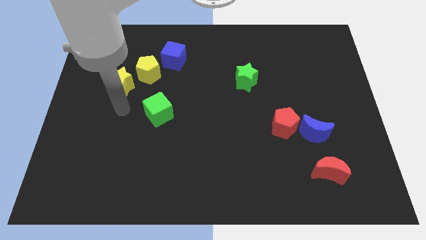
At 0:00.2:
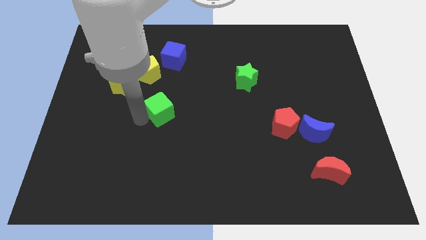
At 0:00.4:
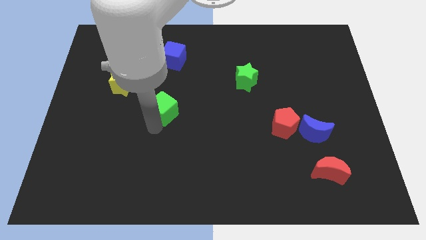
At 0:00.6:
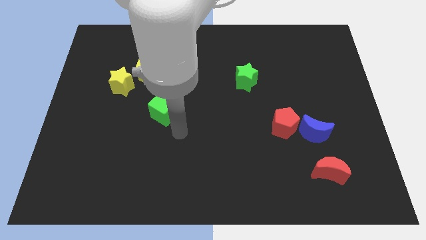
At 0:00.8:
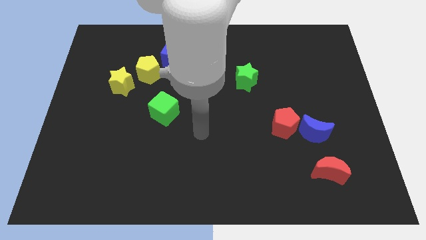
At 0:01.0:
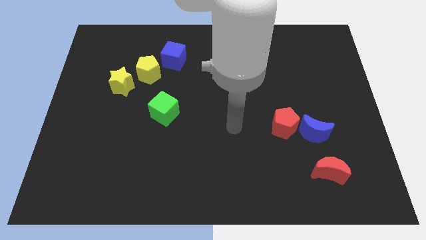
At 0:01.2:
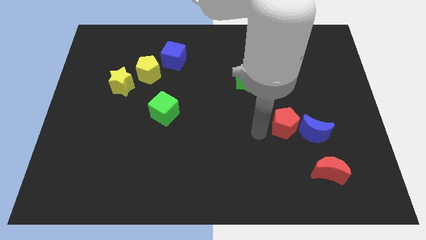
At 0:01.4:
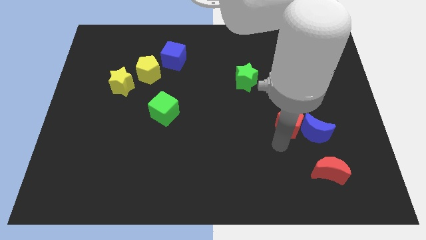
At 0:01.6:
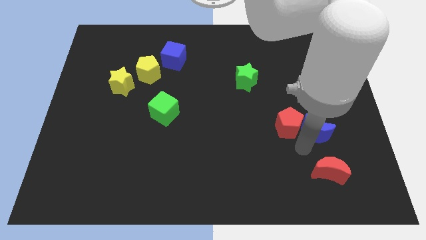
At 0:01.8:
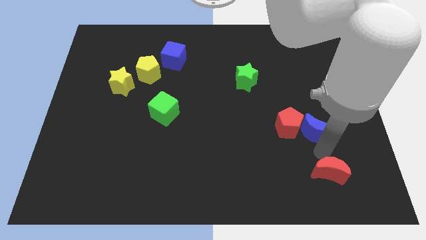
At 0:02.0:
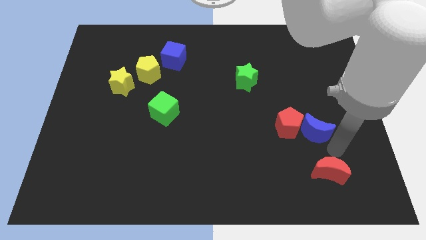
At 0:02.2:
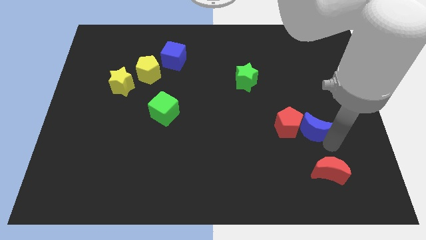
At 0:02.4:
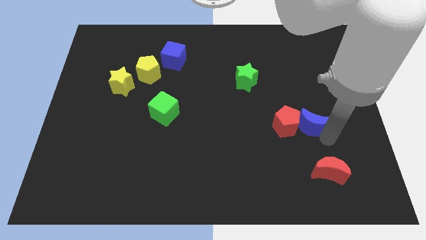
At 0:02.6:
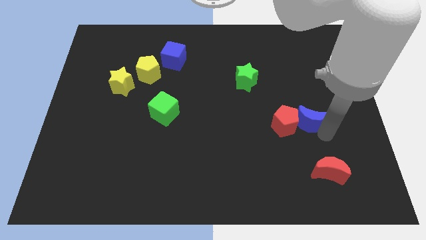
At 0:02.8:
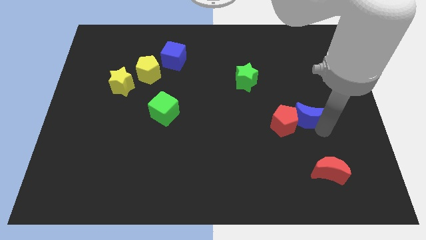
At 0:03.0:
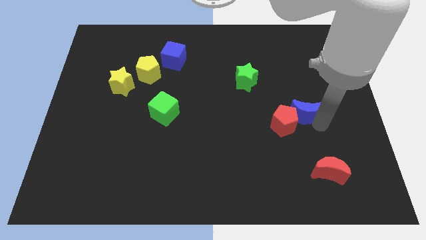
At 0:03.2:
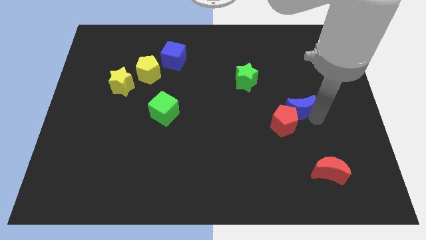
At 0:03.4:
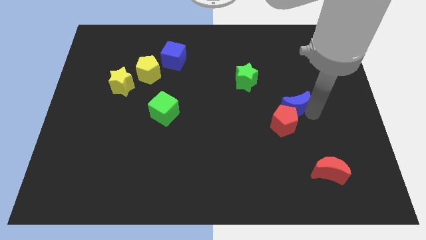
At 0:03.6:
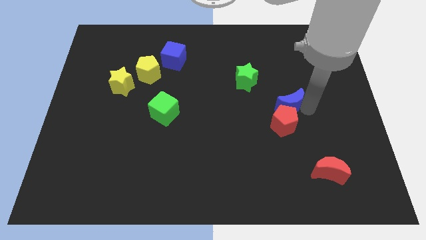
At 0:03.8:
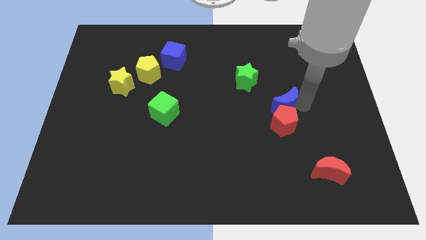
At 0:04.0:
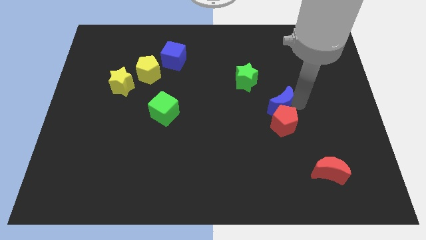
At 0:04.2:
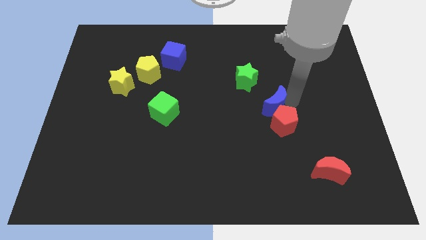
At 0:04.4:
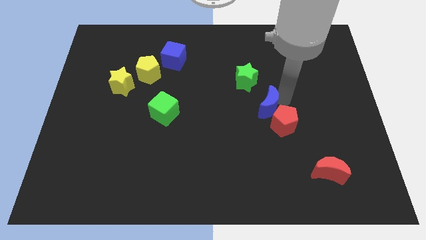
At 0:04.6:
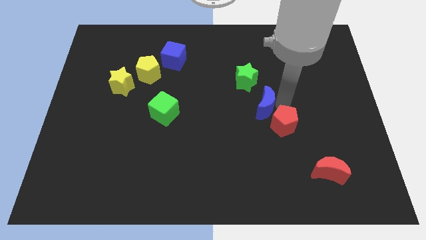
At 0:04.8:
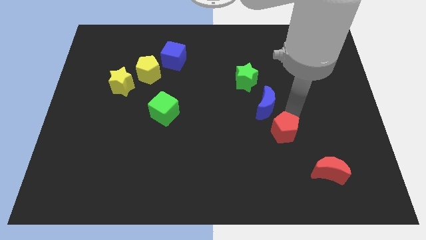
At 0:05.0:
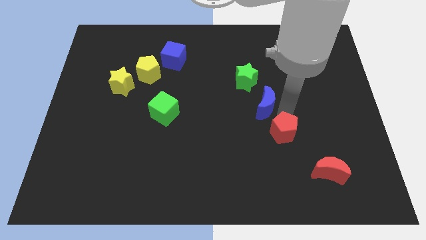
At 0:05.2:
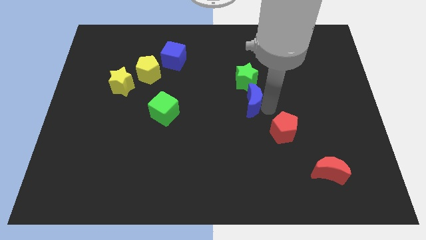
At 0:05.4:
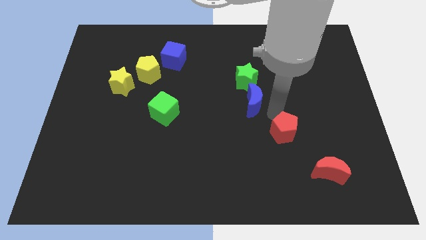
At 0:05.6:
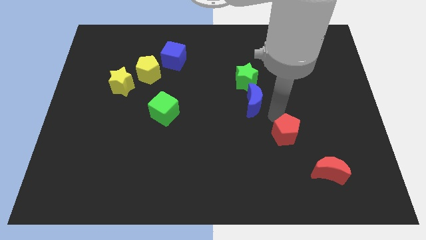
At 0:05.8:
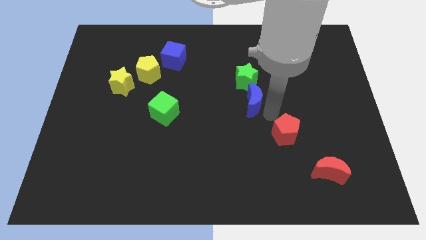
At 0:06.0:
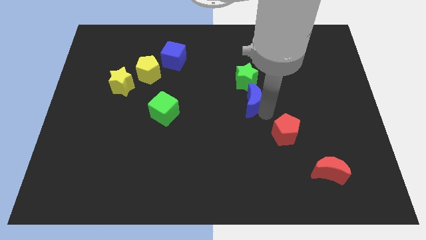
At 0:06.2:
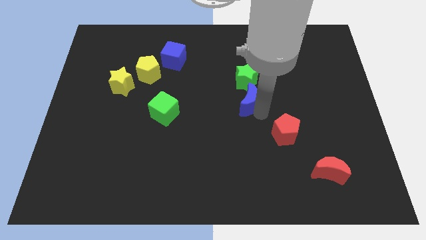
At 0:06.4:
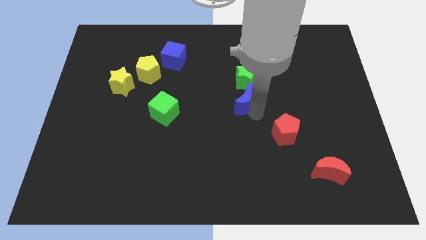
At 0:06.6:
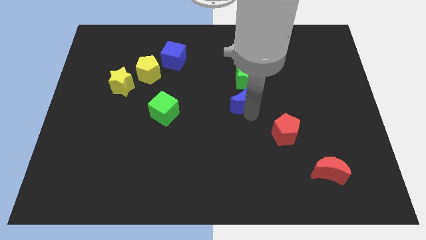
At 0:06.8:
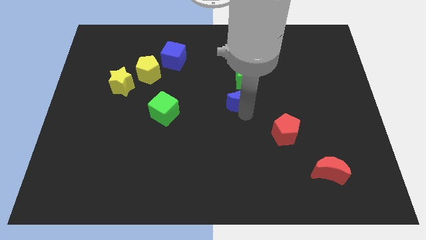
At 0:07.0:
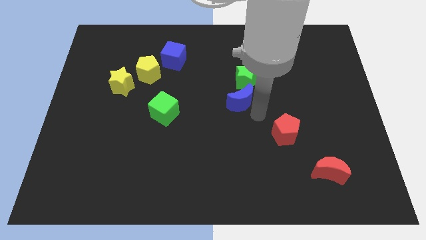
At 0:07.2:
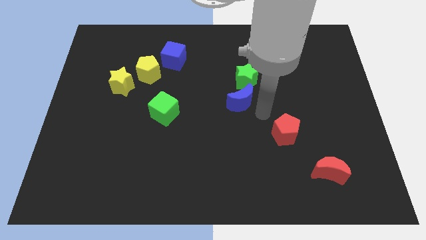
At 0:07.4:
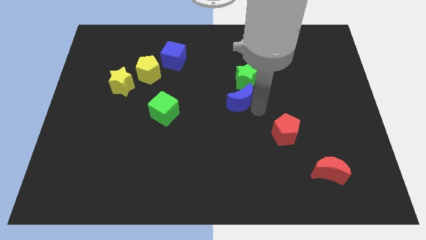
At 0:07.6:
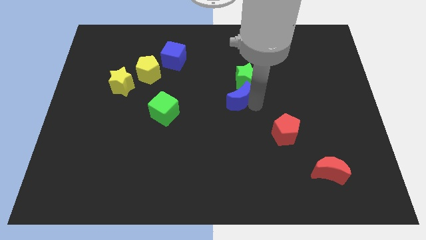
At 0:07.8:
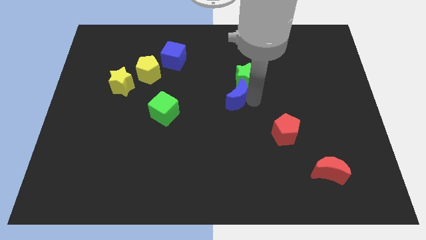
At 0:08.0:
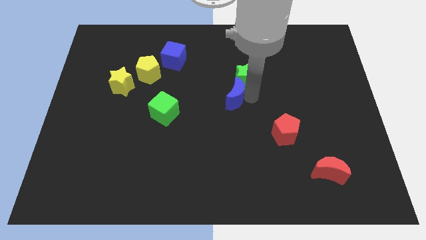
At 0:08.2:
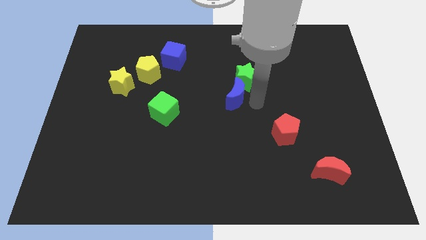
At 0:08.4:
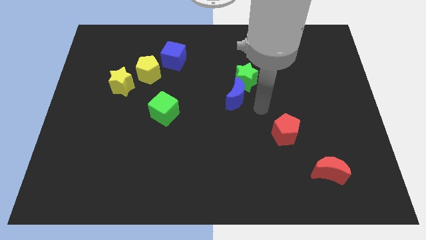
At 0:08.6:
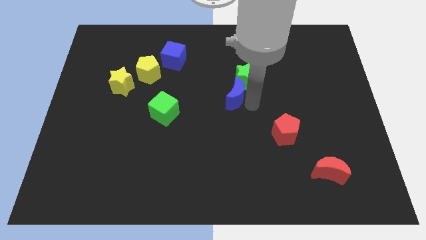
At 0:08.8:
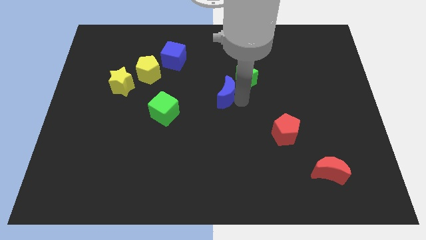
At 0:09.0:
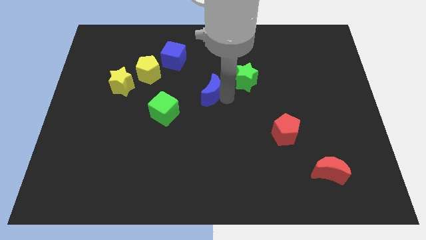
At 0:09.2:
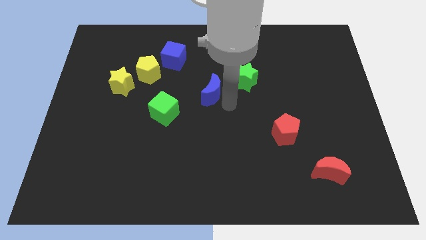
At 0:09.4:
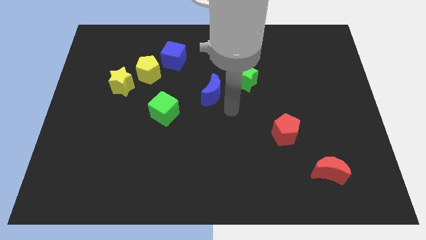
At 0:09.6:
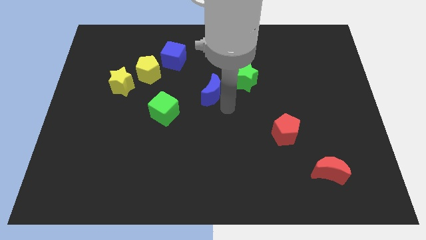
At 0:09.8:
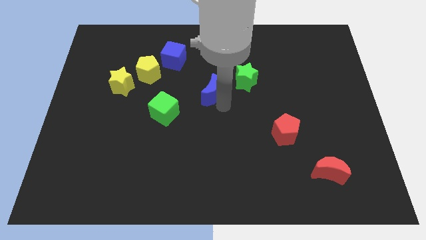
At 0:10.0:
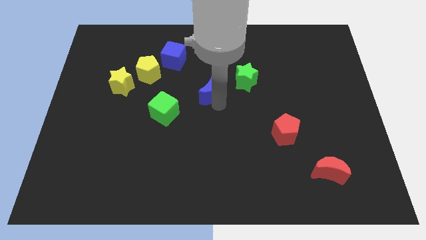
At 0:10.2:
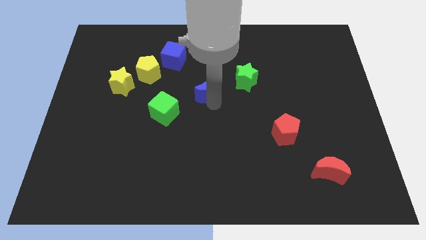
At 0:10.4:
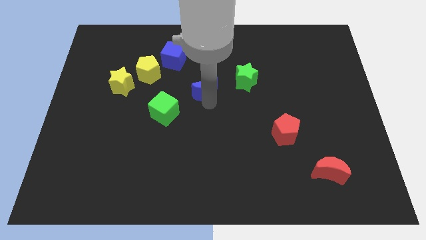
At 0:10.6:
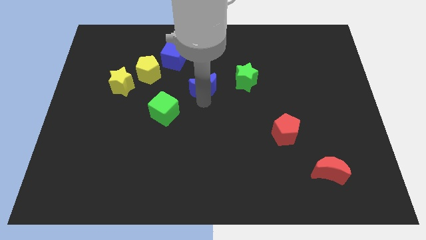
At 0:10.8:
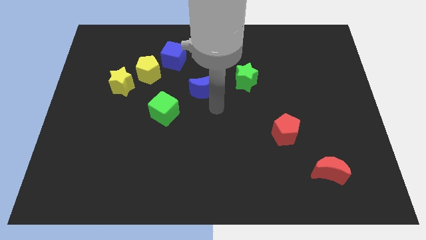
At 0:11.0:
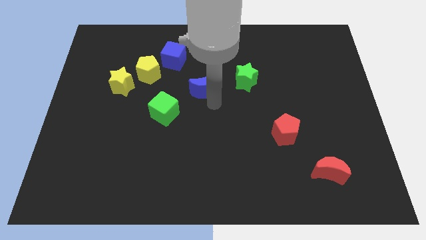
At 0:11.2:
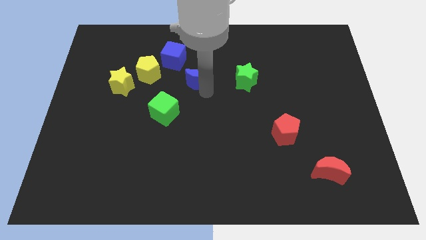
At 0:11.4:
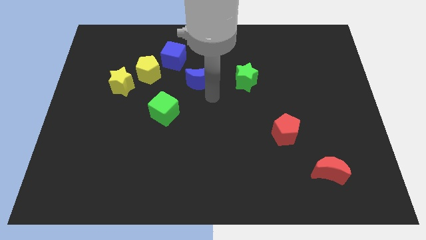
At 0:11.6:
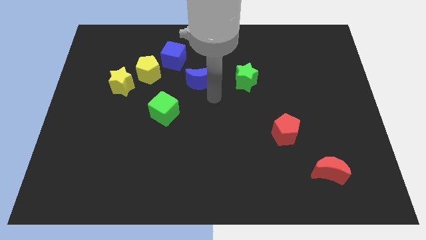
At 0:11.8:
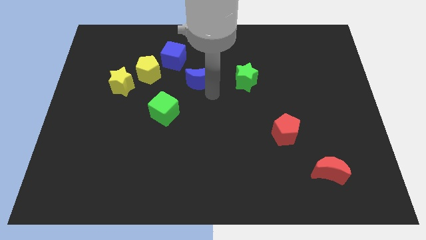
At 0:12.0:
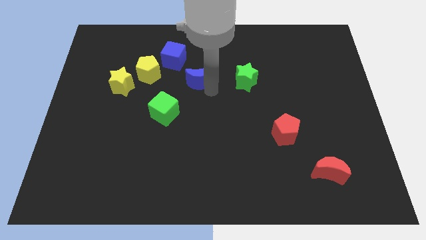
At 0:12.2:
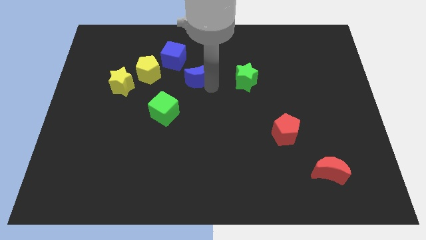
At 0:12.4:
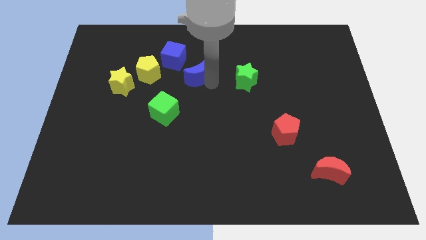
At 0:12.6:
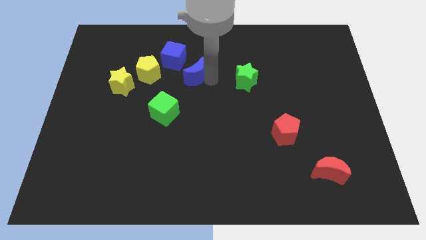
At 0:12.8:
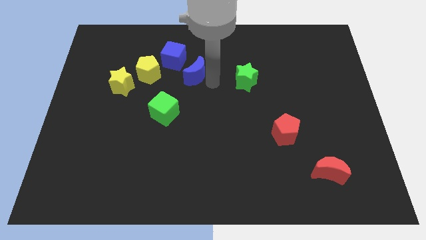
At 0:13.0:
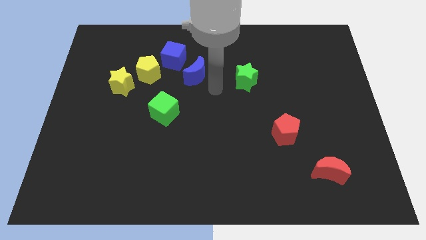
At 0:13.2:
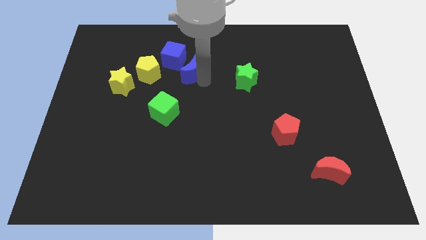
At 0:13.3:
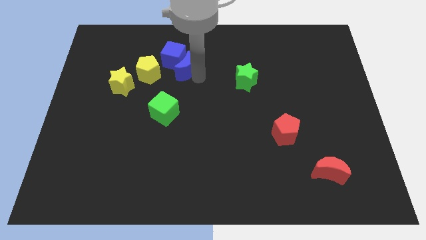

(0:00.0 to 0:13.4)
put the blue moon to the blue cube

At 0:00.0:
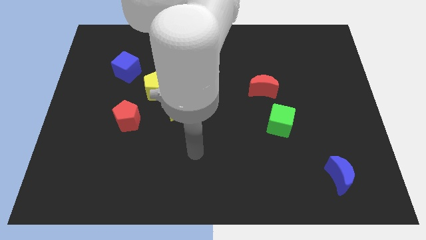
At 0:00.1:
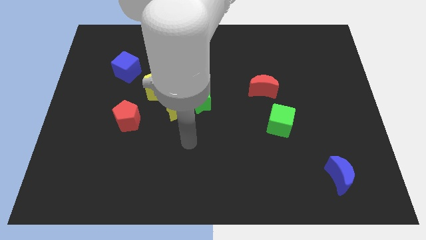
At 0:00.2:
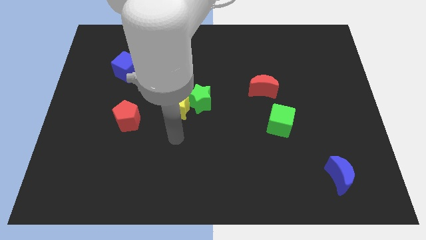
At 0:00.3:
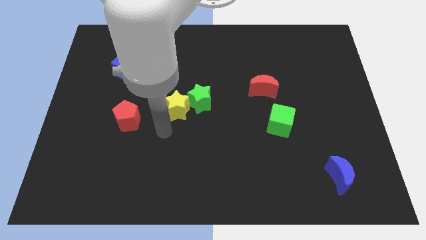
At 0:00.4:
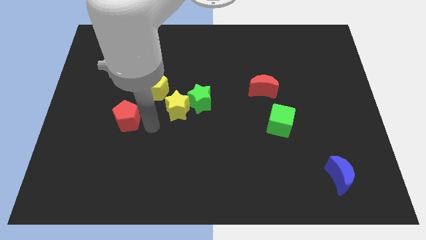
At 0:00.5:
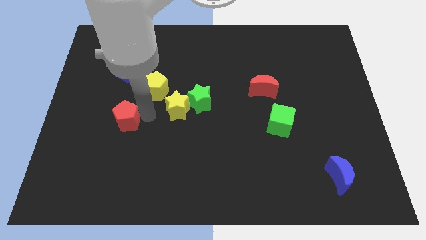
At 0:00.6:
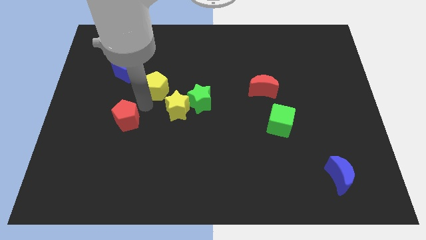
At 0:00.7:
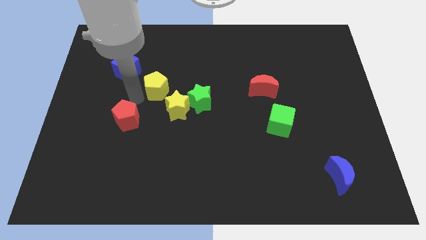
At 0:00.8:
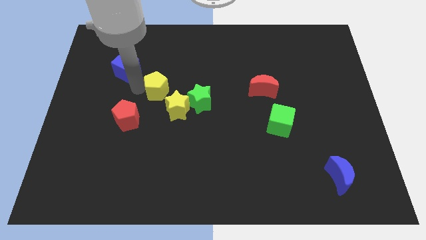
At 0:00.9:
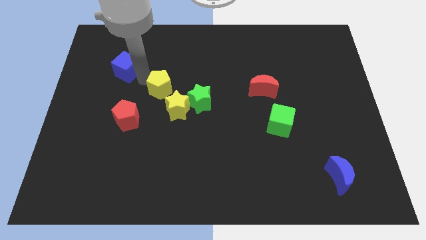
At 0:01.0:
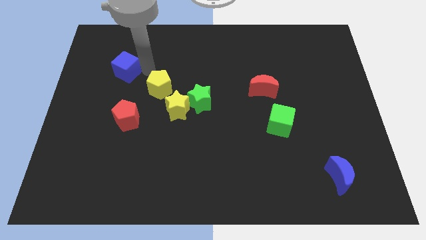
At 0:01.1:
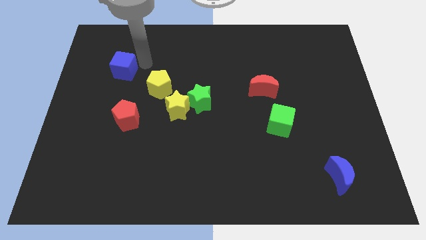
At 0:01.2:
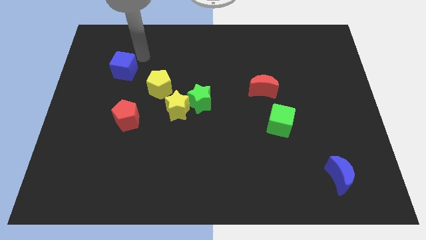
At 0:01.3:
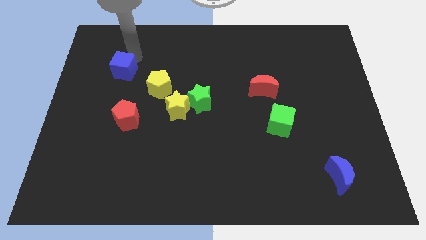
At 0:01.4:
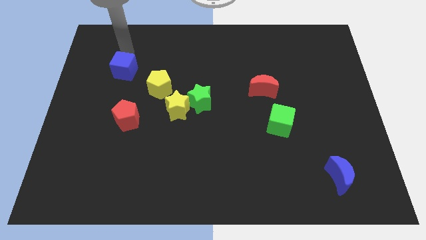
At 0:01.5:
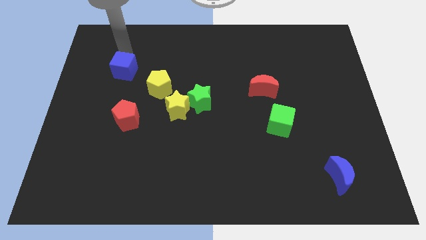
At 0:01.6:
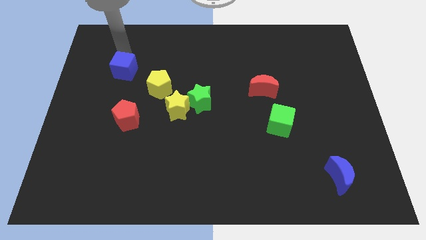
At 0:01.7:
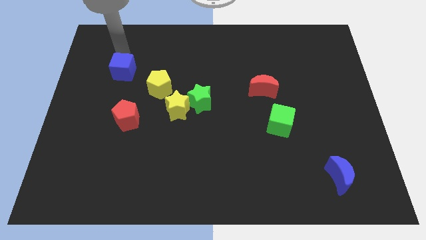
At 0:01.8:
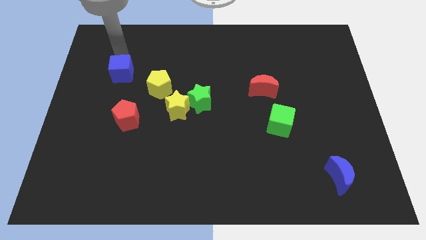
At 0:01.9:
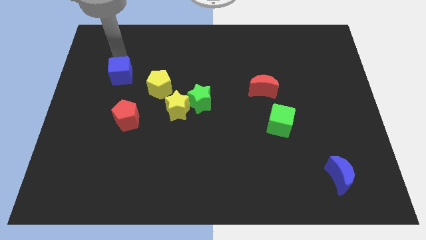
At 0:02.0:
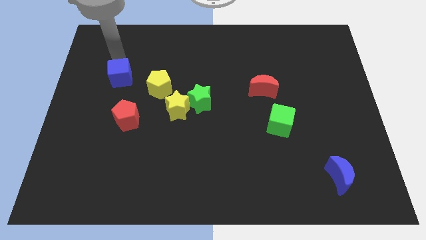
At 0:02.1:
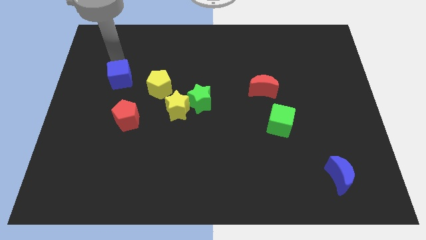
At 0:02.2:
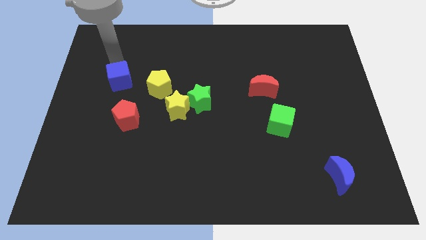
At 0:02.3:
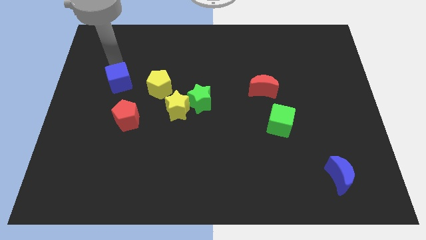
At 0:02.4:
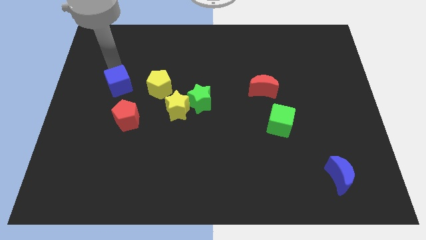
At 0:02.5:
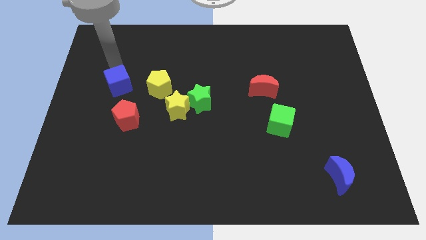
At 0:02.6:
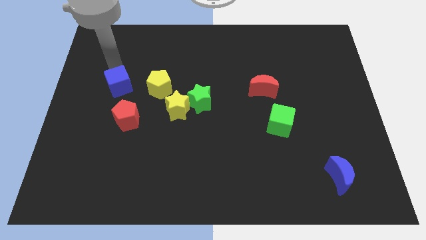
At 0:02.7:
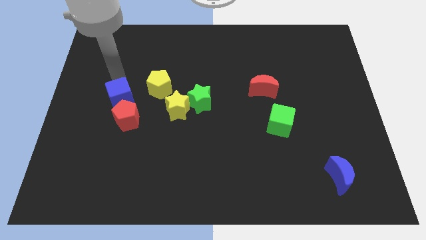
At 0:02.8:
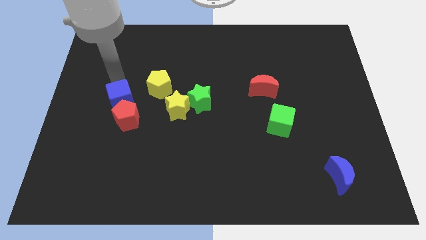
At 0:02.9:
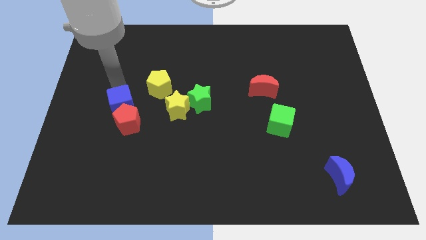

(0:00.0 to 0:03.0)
move the blue cube to the red pentagon
